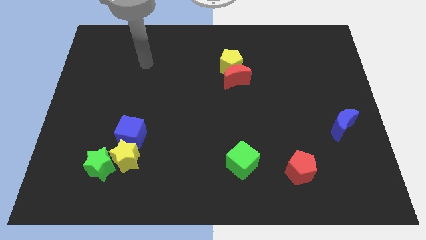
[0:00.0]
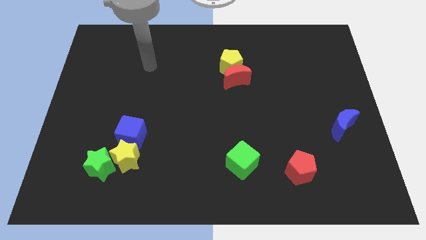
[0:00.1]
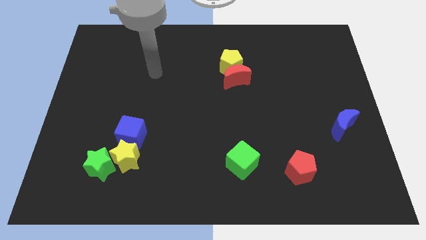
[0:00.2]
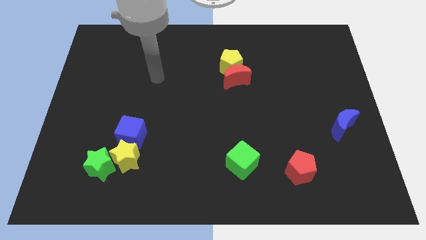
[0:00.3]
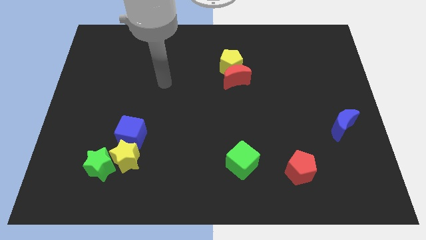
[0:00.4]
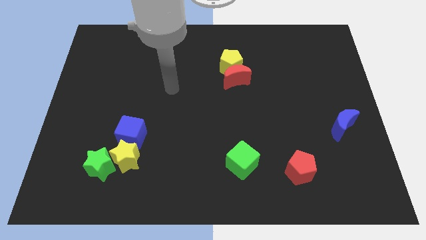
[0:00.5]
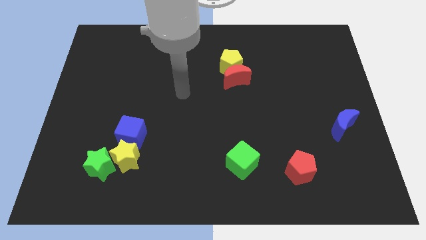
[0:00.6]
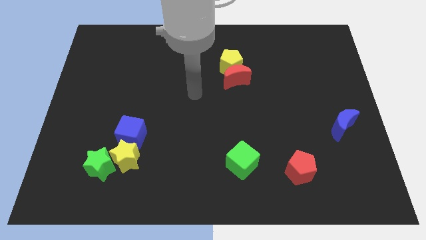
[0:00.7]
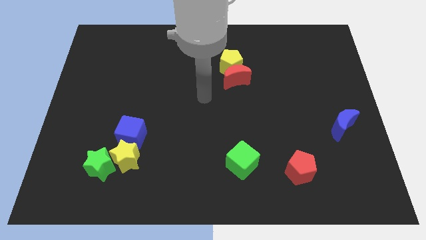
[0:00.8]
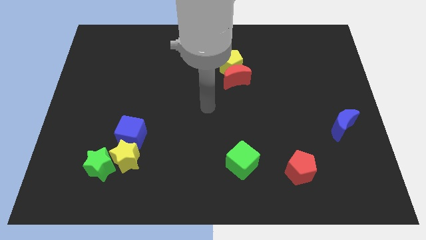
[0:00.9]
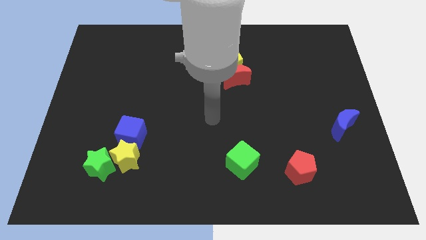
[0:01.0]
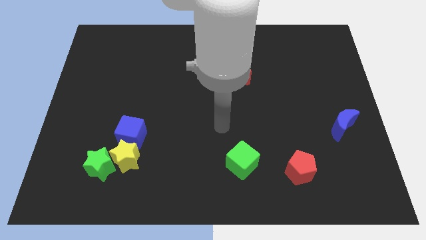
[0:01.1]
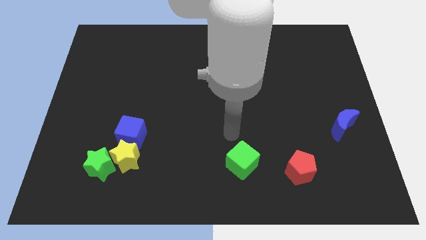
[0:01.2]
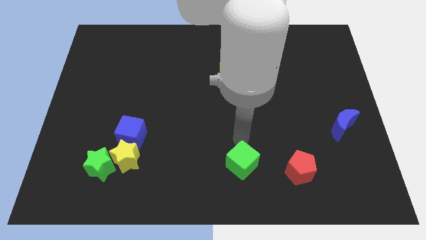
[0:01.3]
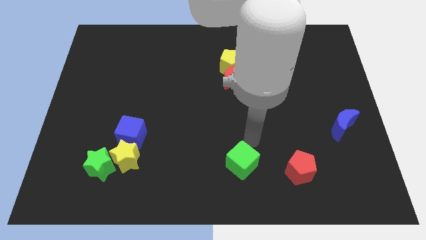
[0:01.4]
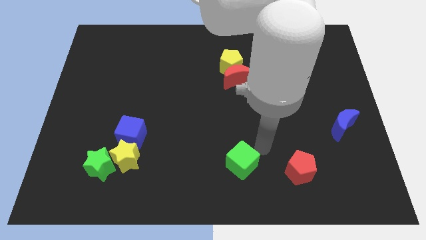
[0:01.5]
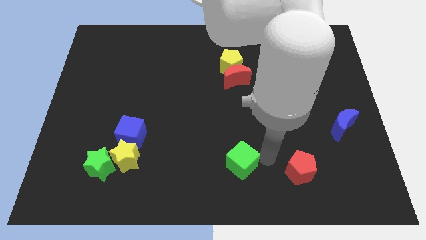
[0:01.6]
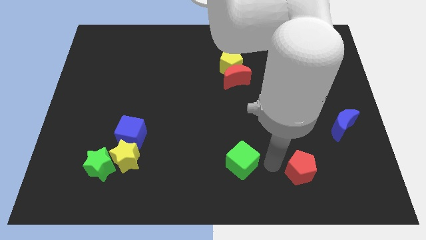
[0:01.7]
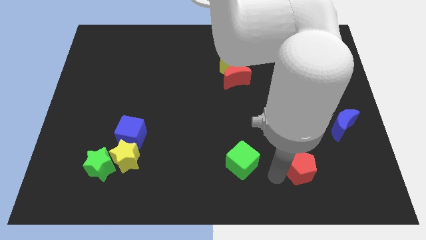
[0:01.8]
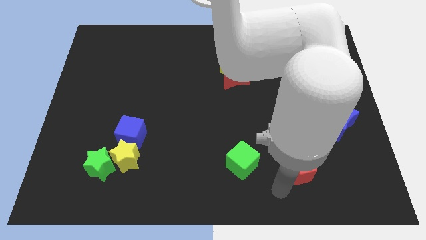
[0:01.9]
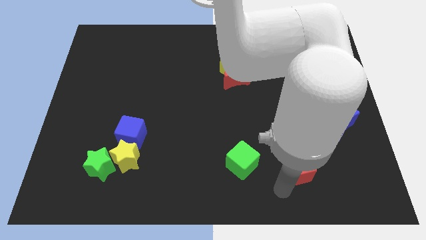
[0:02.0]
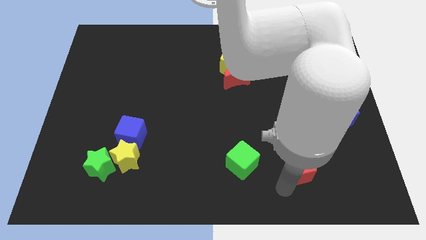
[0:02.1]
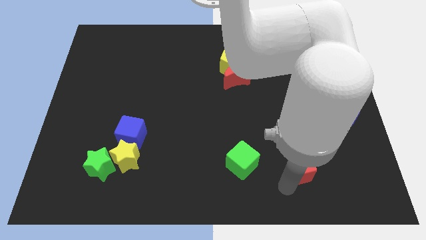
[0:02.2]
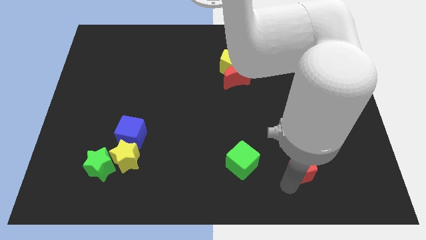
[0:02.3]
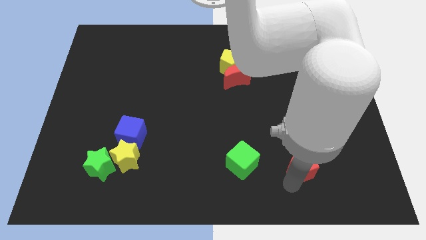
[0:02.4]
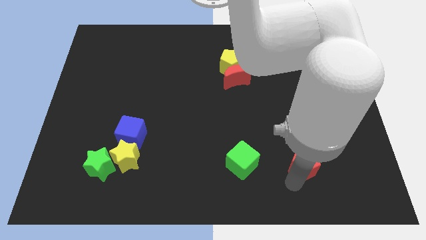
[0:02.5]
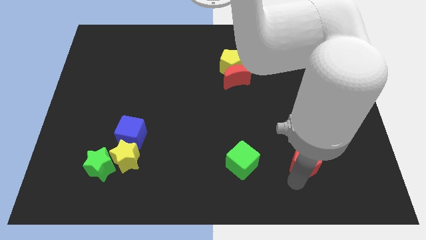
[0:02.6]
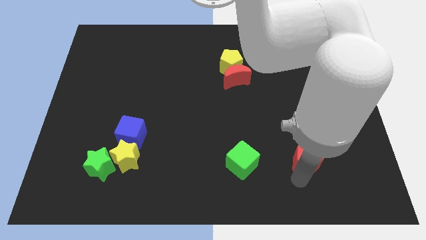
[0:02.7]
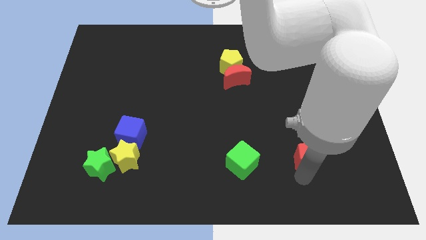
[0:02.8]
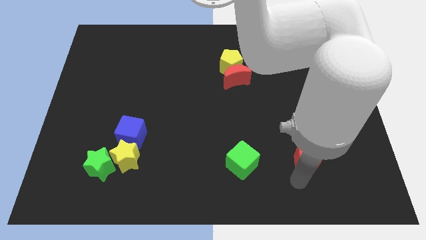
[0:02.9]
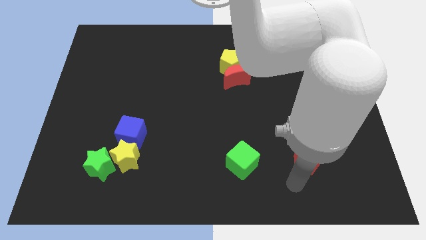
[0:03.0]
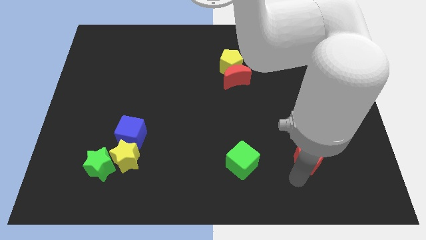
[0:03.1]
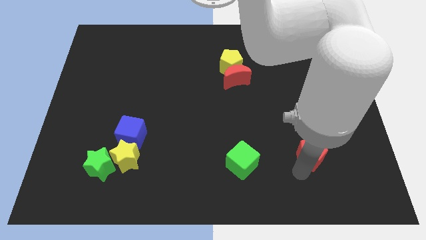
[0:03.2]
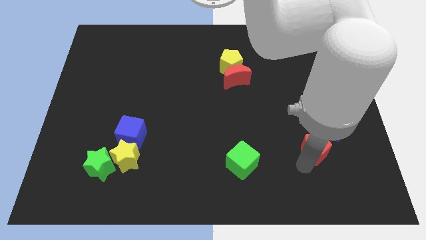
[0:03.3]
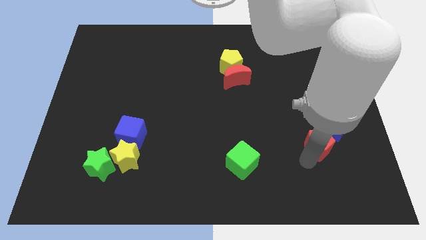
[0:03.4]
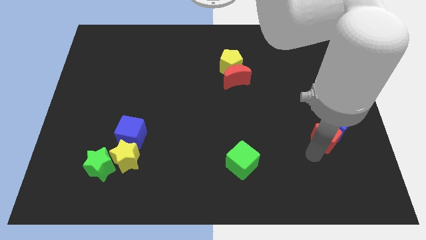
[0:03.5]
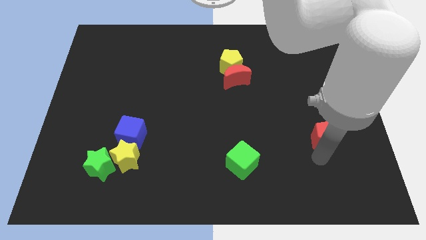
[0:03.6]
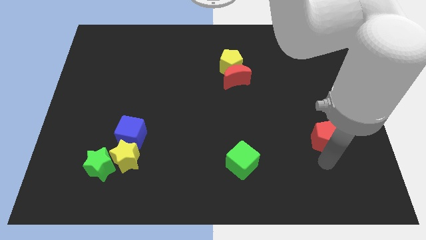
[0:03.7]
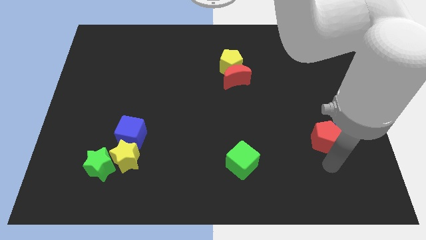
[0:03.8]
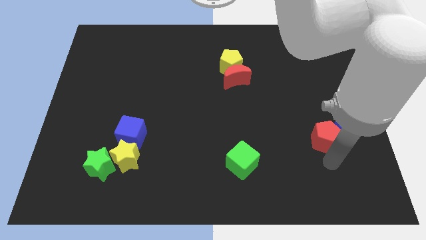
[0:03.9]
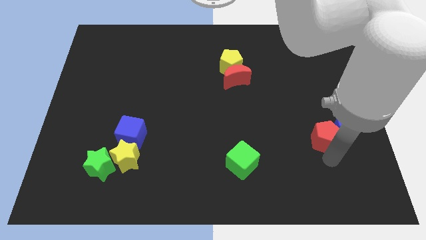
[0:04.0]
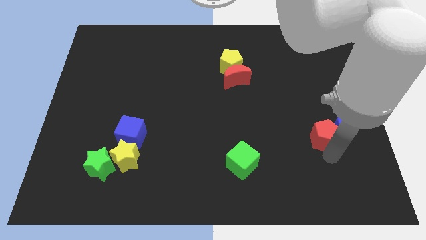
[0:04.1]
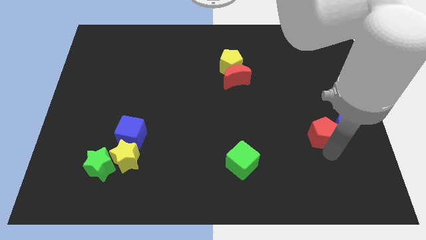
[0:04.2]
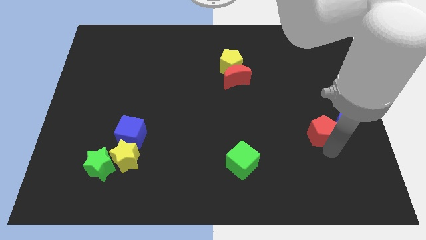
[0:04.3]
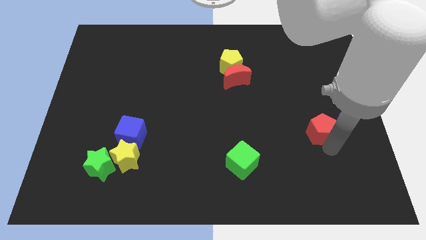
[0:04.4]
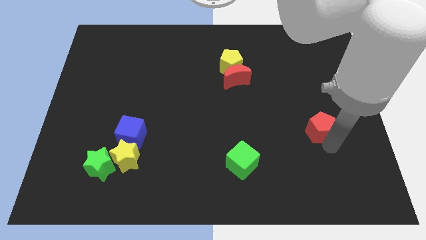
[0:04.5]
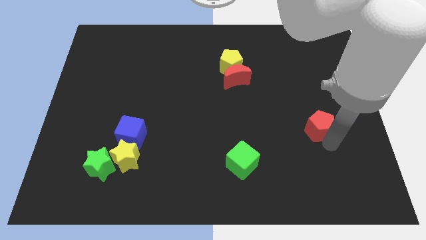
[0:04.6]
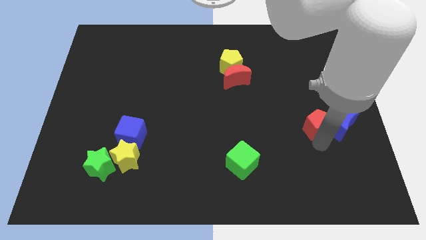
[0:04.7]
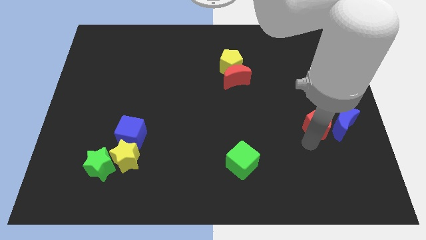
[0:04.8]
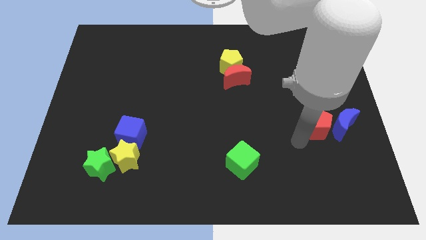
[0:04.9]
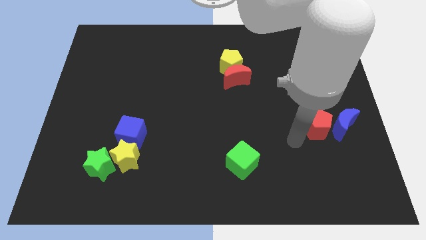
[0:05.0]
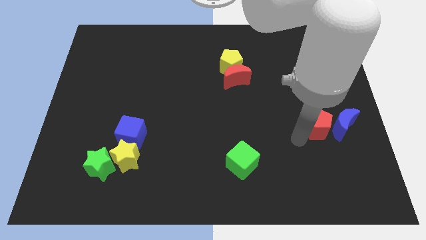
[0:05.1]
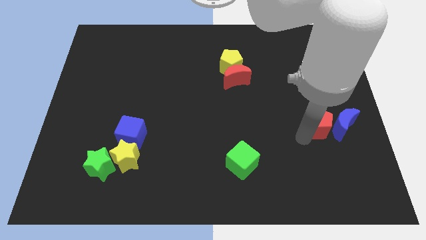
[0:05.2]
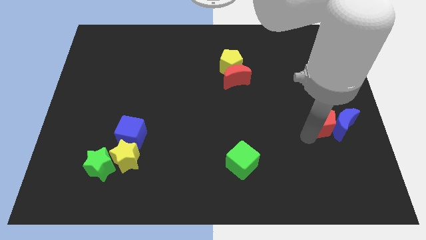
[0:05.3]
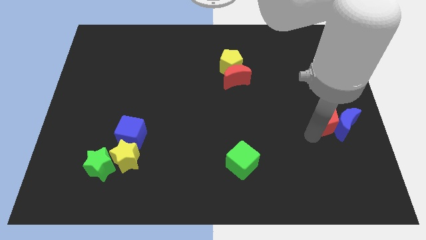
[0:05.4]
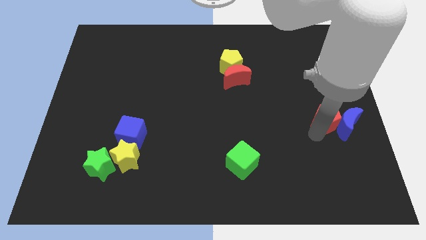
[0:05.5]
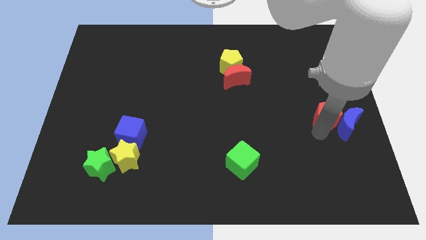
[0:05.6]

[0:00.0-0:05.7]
slide the red pentagon to the right side of the board
